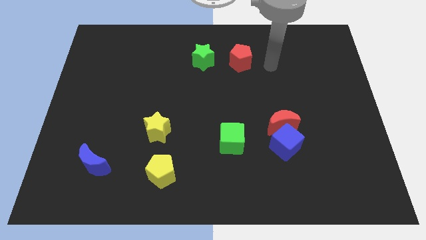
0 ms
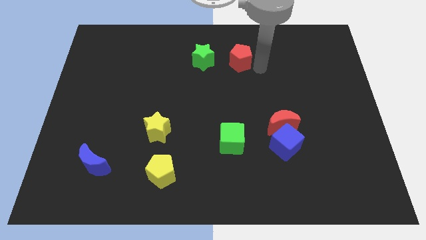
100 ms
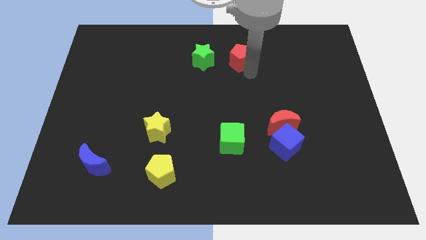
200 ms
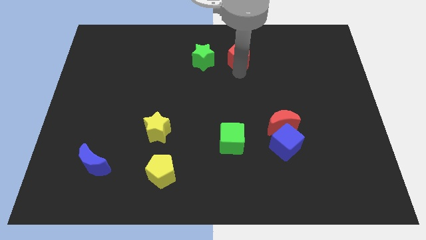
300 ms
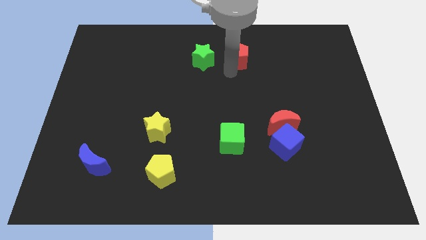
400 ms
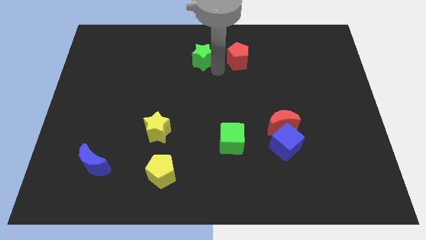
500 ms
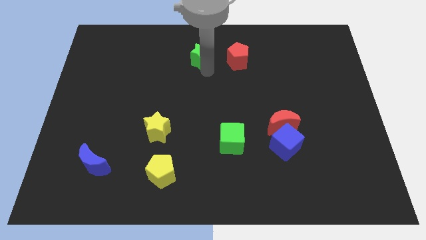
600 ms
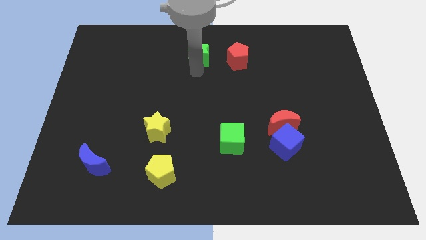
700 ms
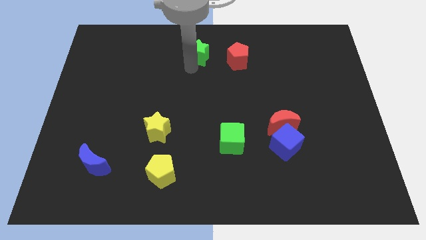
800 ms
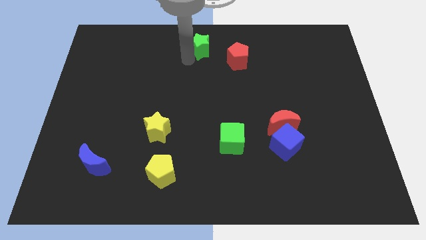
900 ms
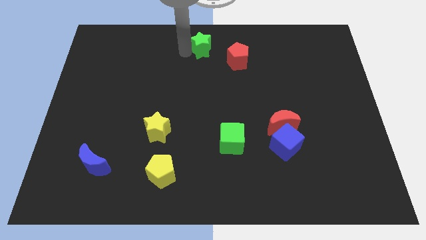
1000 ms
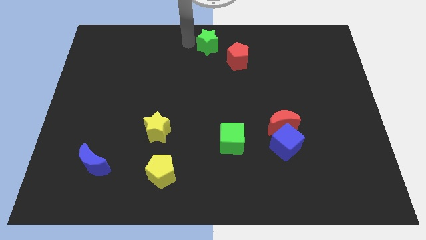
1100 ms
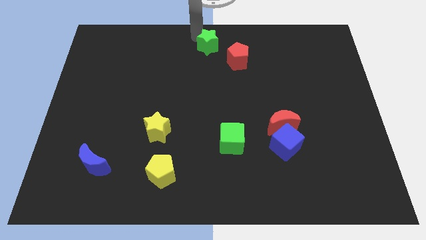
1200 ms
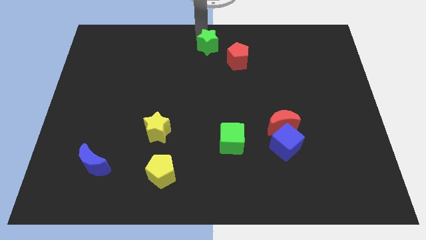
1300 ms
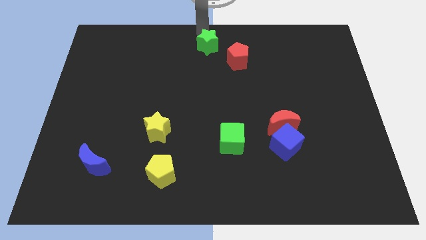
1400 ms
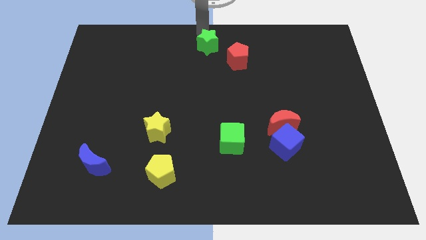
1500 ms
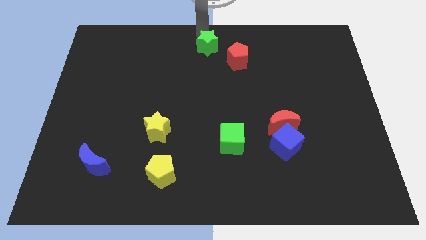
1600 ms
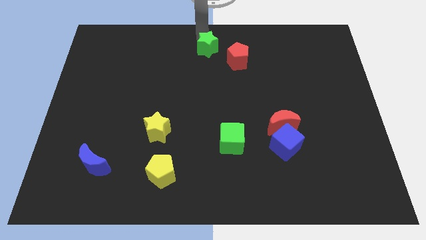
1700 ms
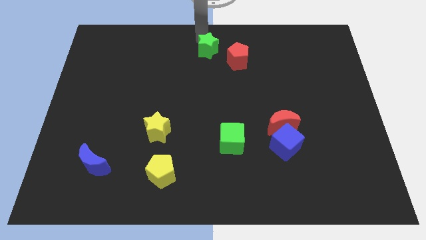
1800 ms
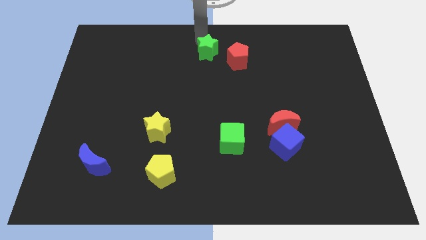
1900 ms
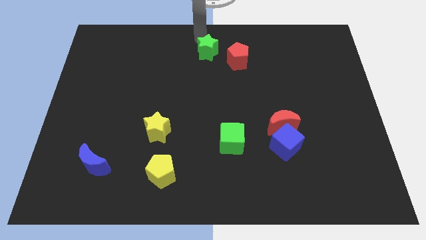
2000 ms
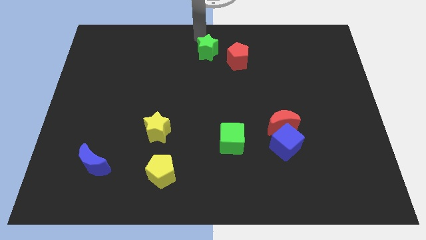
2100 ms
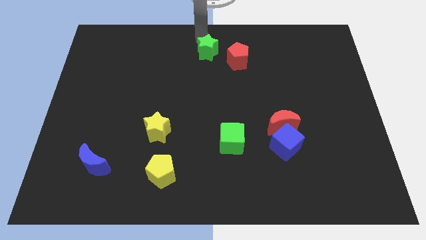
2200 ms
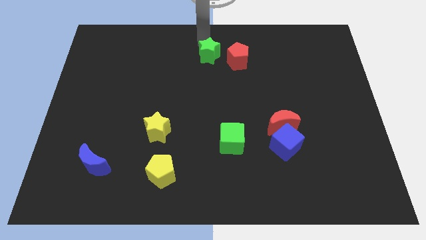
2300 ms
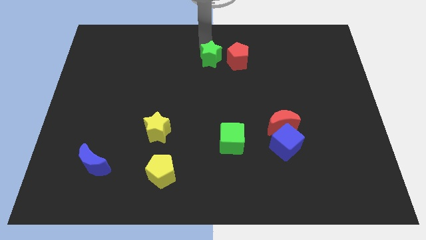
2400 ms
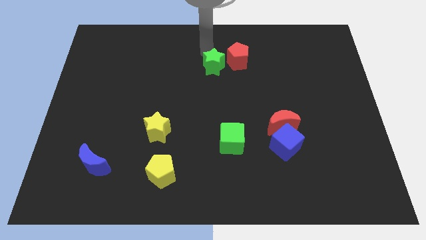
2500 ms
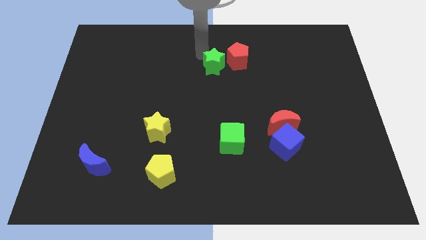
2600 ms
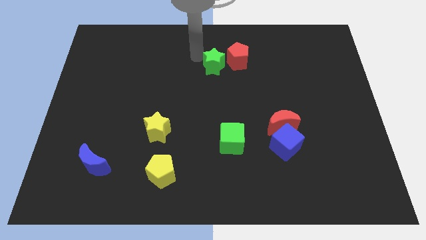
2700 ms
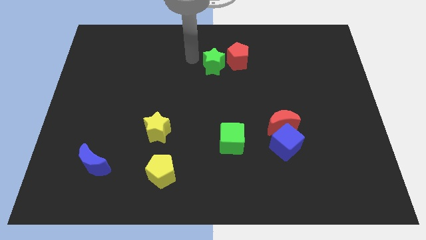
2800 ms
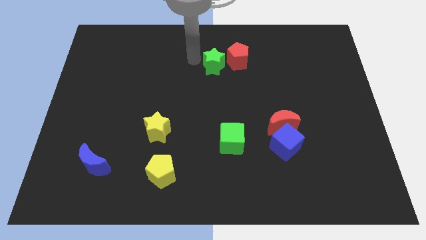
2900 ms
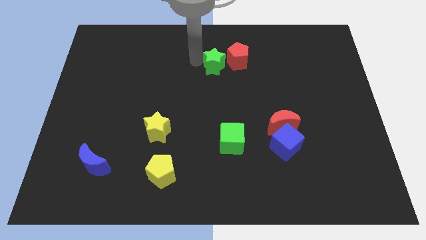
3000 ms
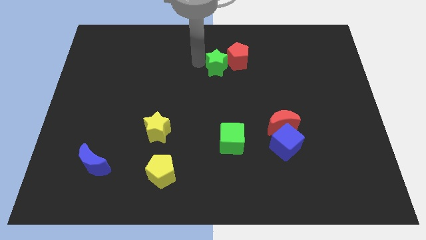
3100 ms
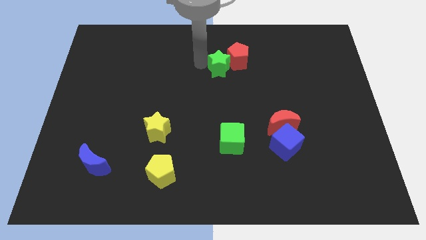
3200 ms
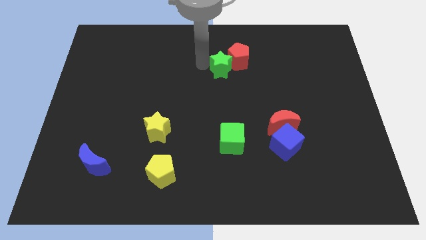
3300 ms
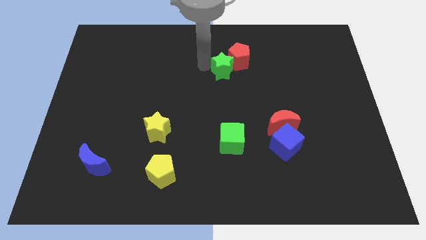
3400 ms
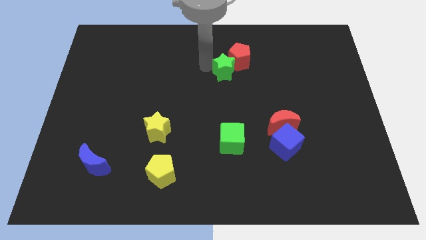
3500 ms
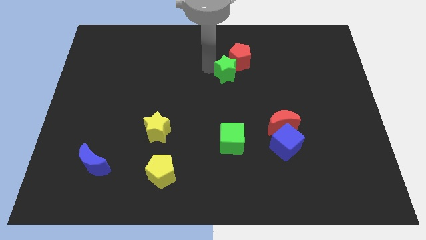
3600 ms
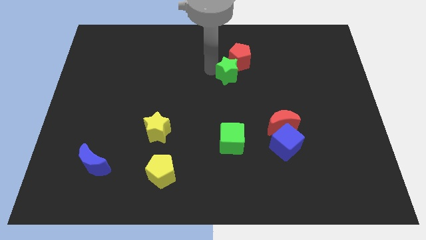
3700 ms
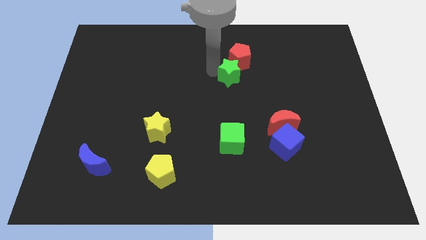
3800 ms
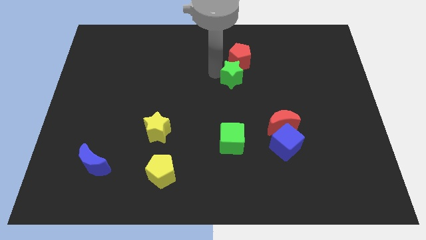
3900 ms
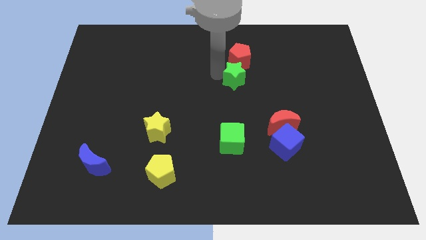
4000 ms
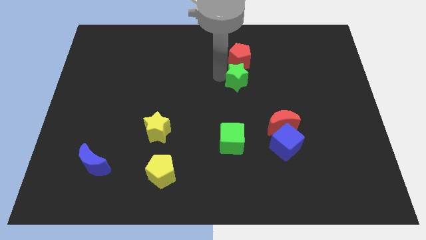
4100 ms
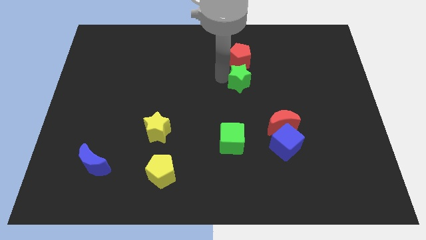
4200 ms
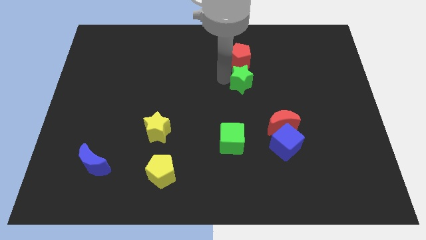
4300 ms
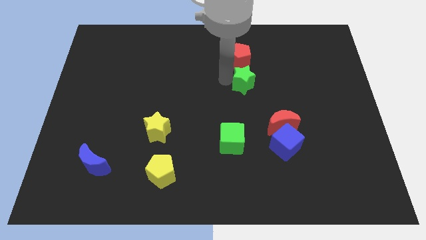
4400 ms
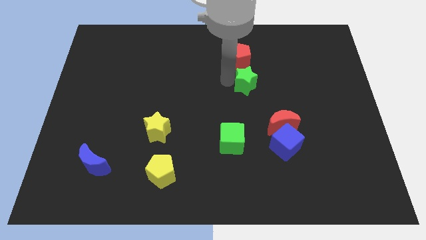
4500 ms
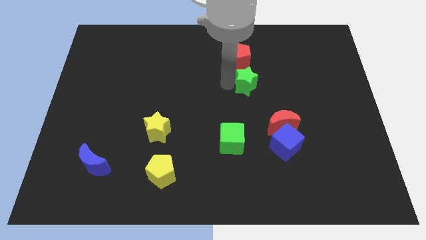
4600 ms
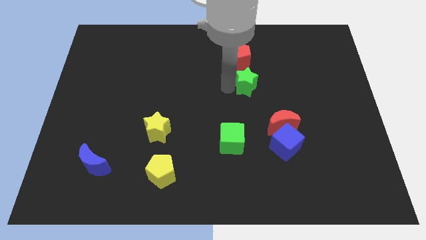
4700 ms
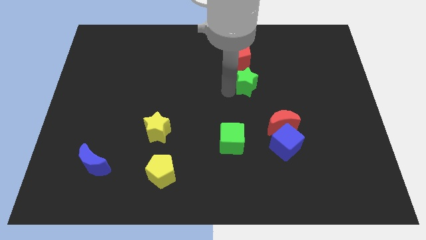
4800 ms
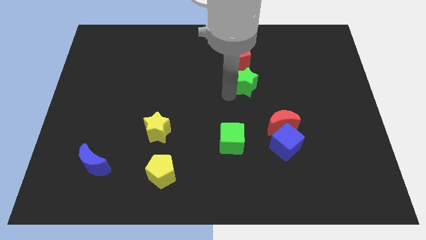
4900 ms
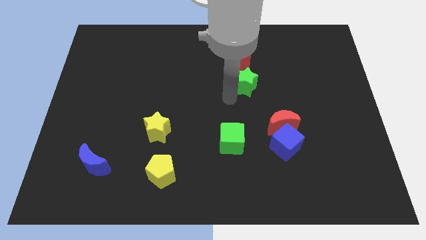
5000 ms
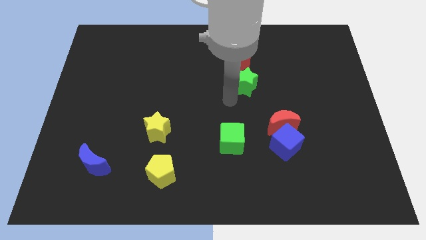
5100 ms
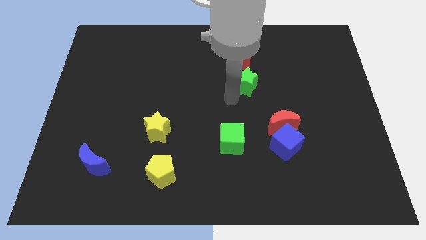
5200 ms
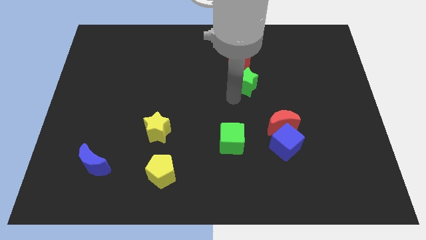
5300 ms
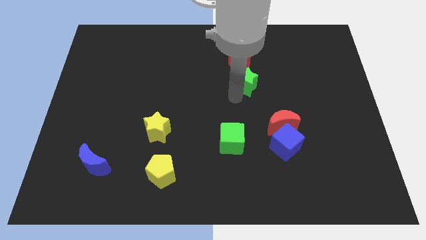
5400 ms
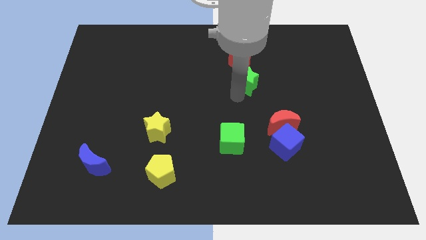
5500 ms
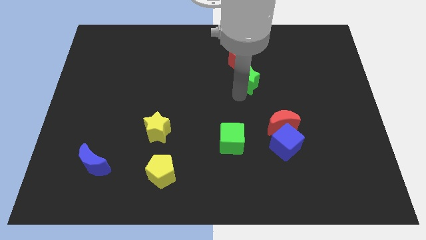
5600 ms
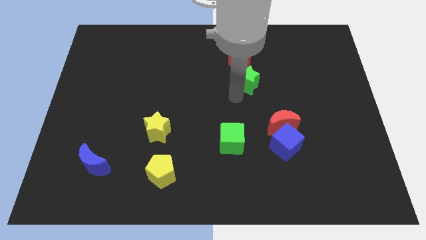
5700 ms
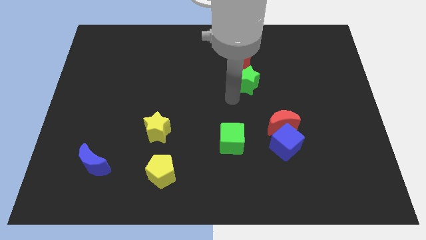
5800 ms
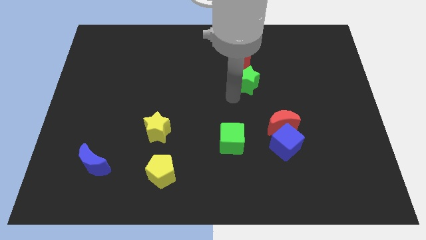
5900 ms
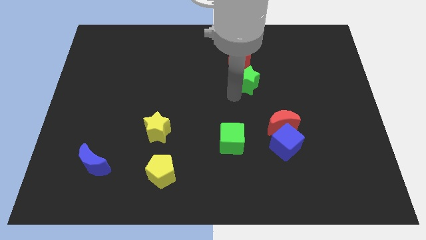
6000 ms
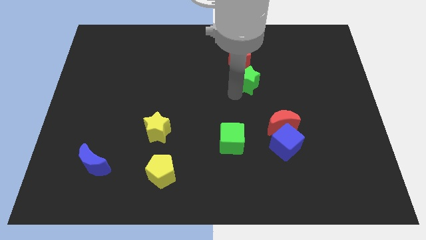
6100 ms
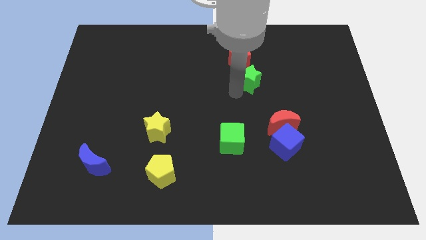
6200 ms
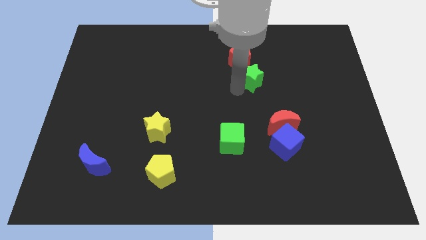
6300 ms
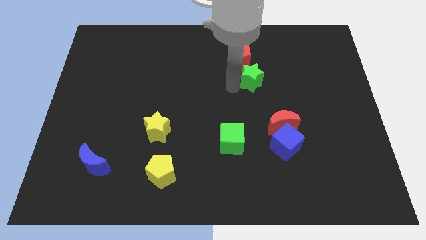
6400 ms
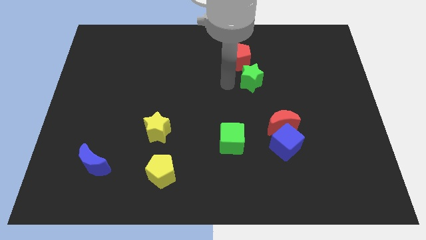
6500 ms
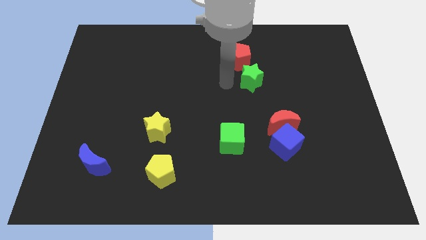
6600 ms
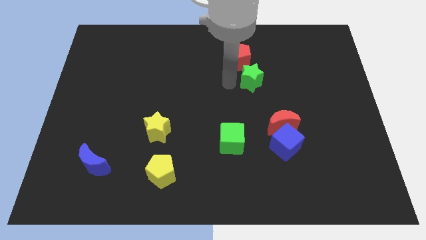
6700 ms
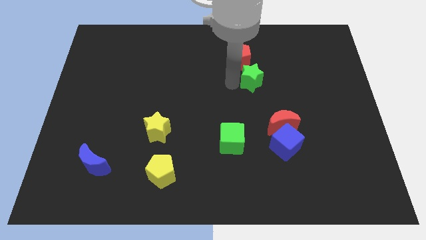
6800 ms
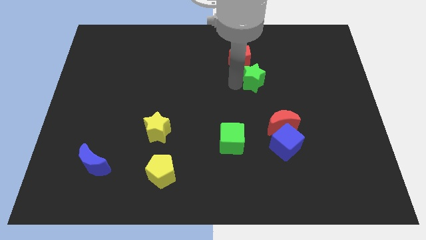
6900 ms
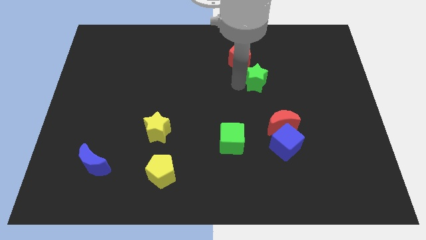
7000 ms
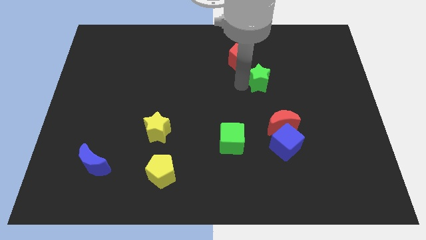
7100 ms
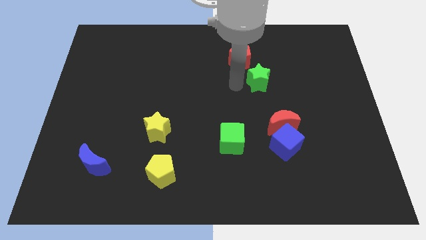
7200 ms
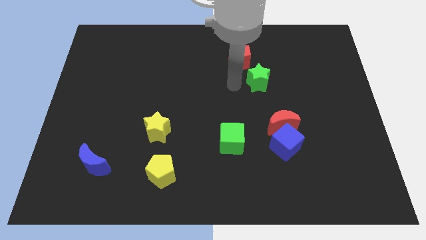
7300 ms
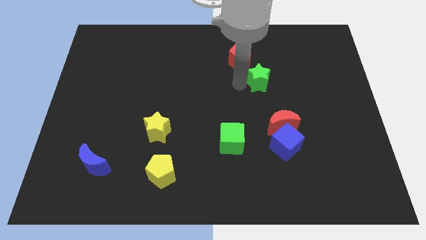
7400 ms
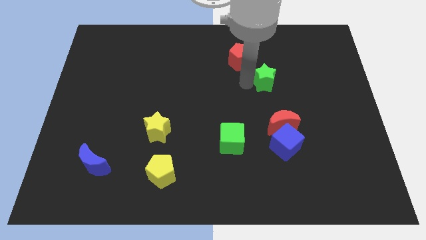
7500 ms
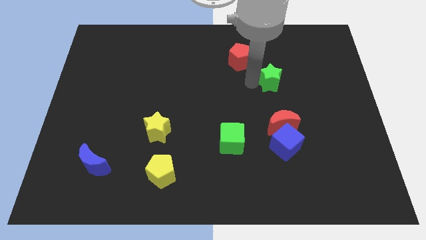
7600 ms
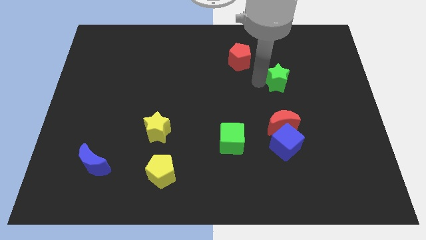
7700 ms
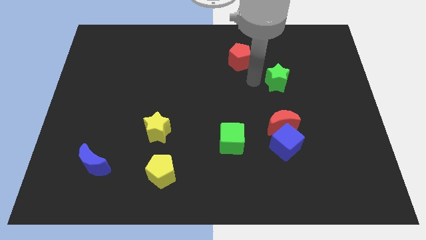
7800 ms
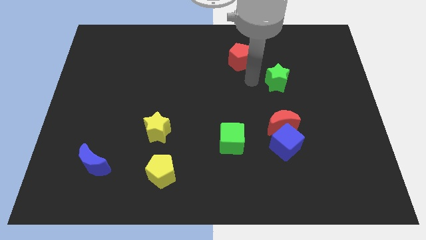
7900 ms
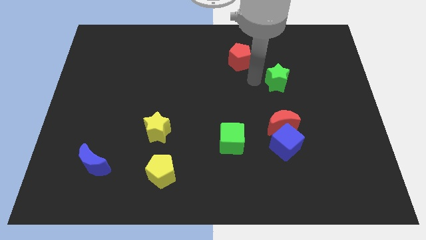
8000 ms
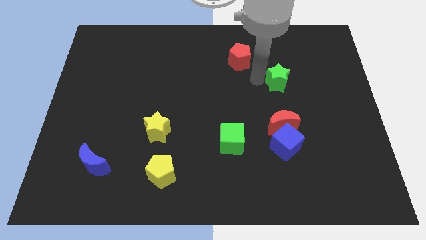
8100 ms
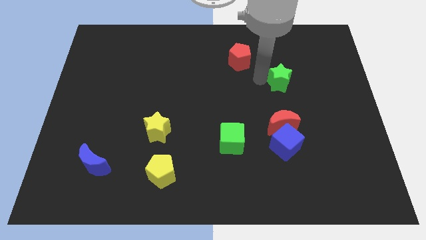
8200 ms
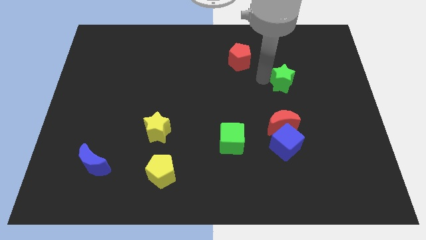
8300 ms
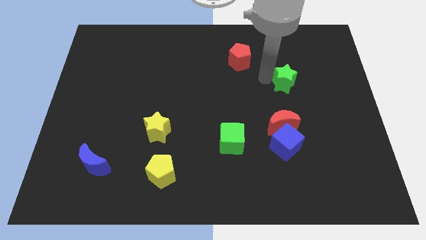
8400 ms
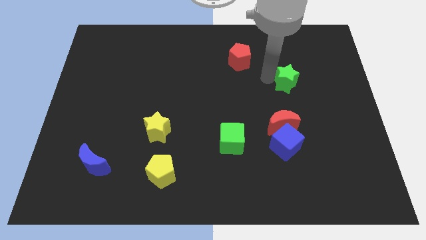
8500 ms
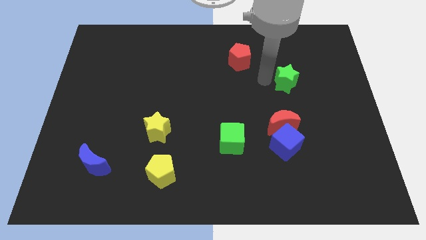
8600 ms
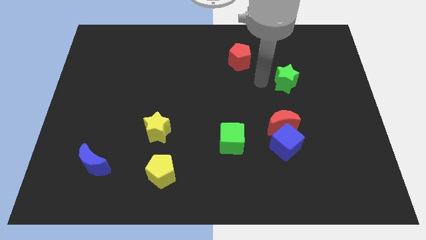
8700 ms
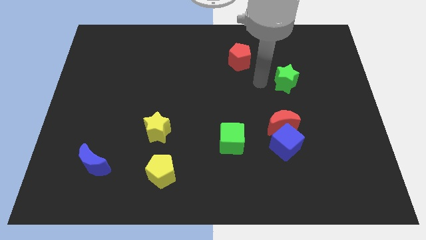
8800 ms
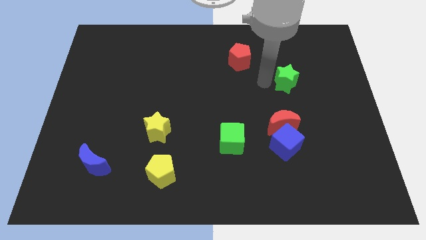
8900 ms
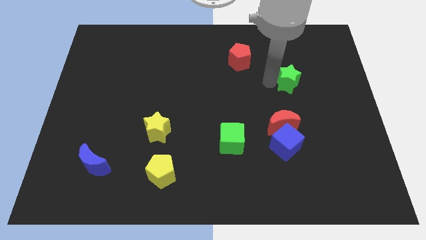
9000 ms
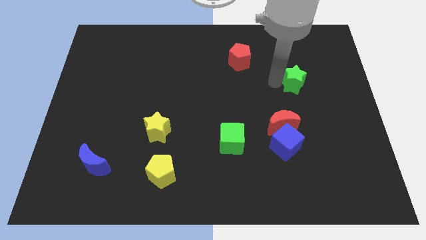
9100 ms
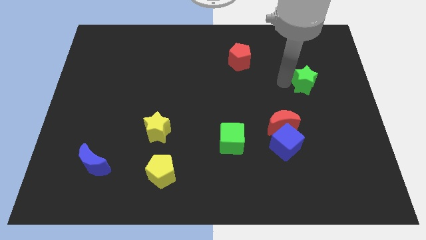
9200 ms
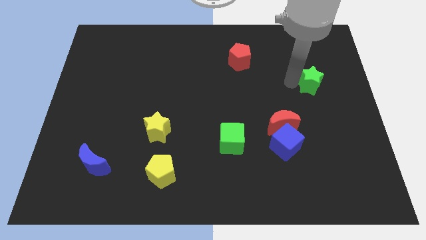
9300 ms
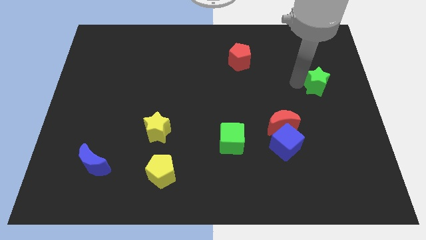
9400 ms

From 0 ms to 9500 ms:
move the green star to the center right
